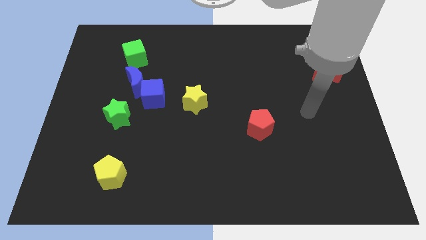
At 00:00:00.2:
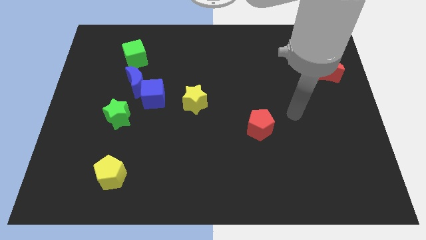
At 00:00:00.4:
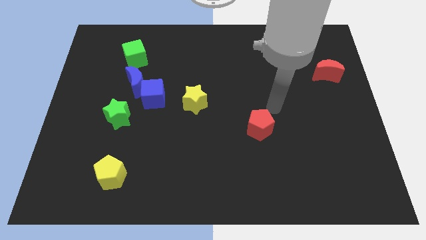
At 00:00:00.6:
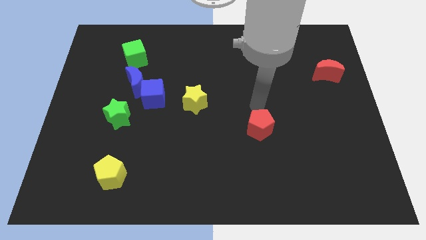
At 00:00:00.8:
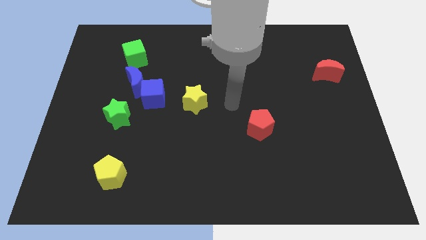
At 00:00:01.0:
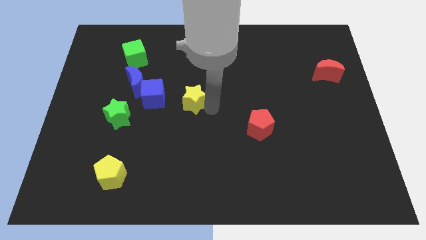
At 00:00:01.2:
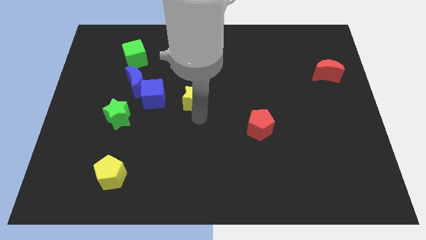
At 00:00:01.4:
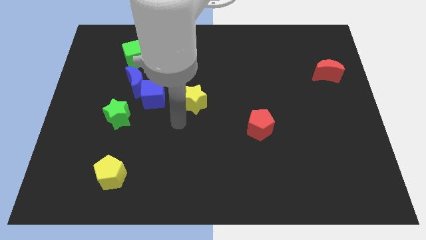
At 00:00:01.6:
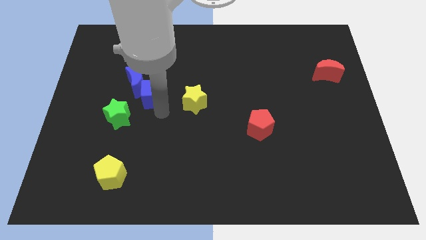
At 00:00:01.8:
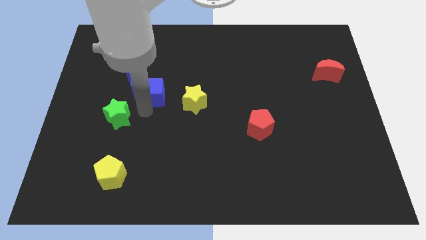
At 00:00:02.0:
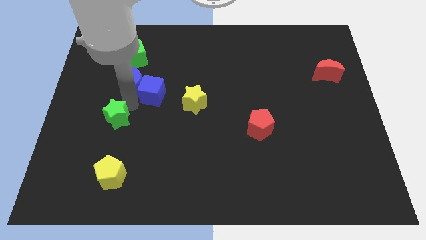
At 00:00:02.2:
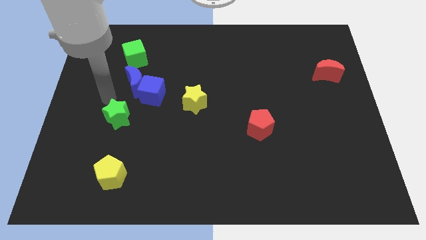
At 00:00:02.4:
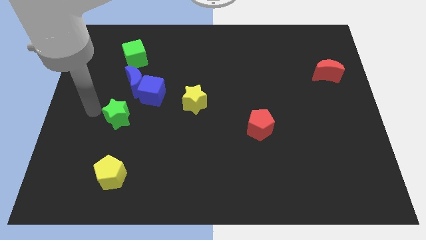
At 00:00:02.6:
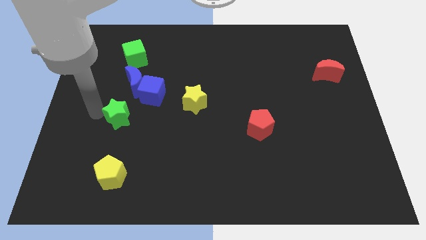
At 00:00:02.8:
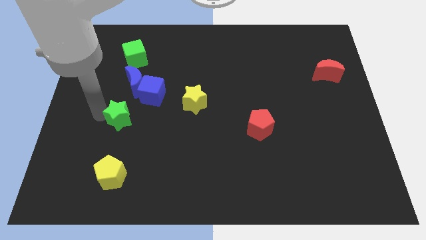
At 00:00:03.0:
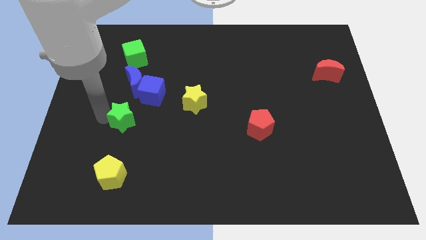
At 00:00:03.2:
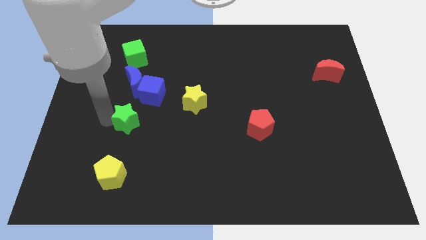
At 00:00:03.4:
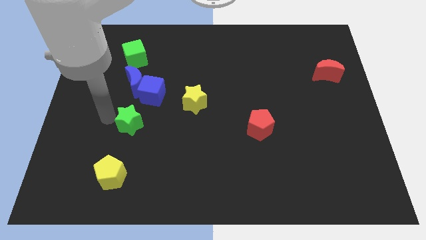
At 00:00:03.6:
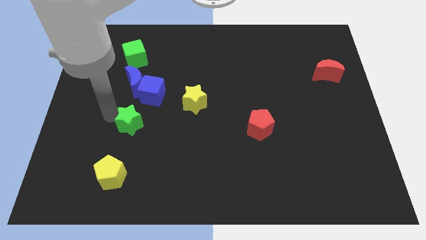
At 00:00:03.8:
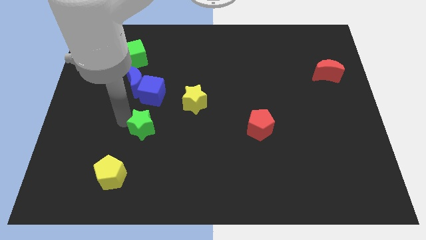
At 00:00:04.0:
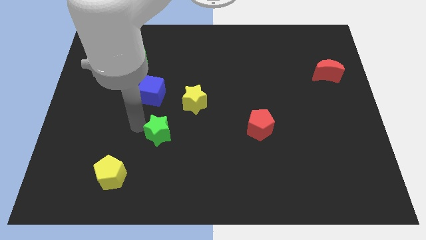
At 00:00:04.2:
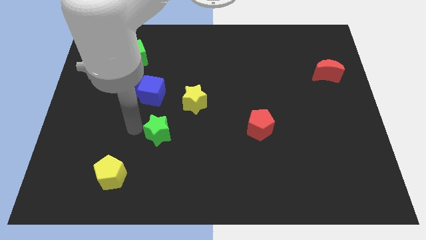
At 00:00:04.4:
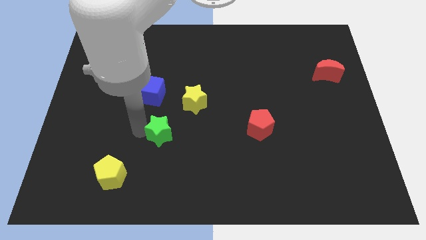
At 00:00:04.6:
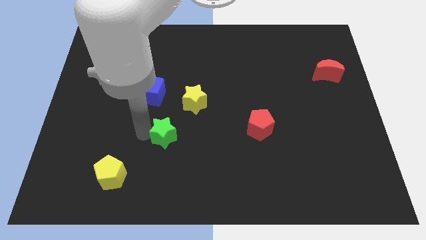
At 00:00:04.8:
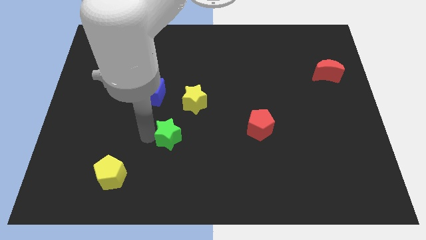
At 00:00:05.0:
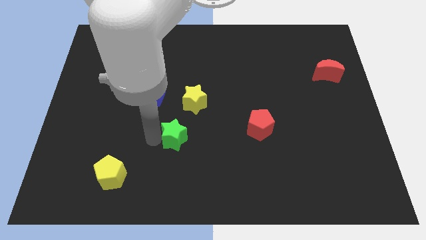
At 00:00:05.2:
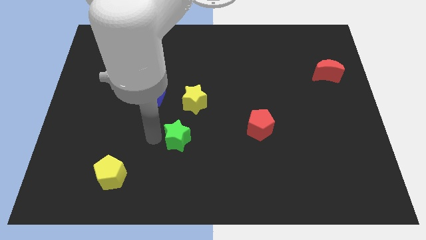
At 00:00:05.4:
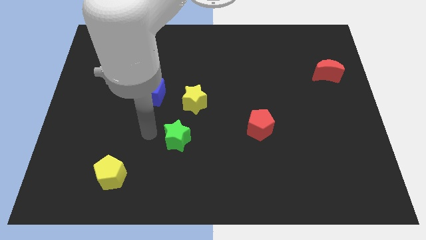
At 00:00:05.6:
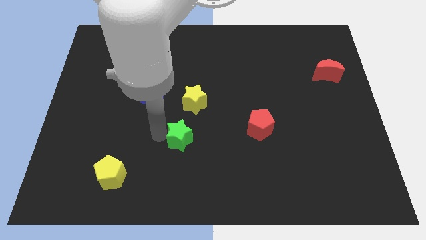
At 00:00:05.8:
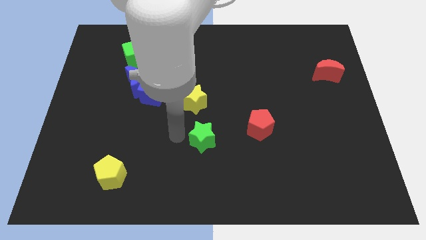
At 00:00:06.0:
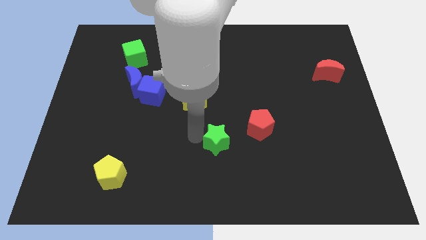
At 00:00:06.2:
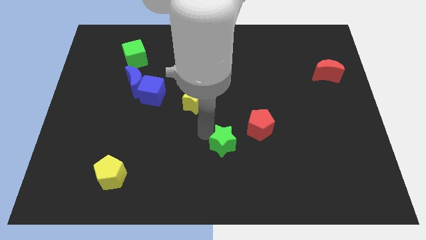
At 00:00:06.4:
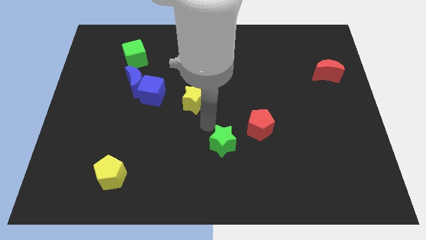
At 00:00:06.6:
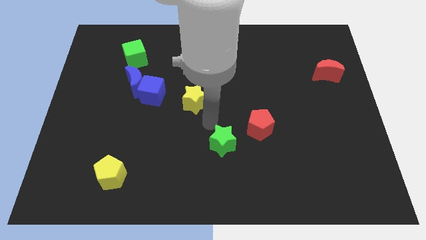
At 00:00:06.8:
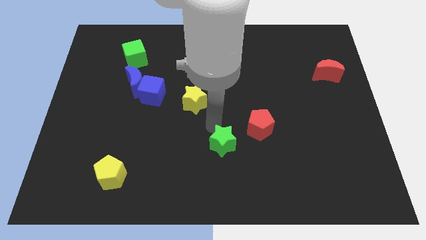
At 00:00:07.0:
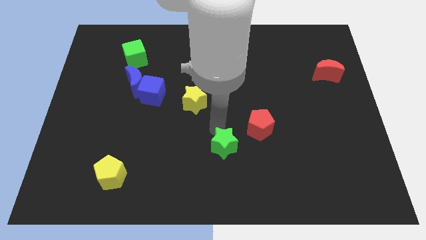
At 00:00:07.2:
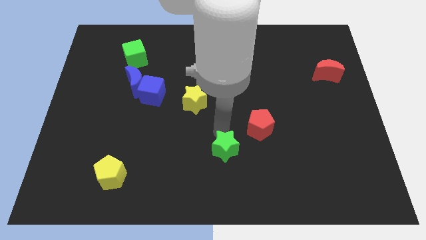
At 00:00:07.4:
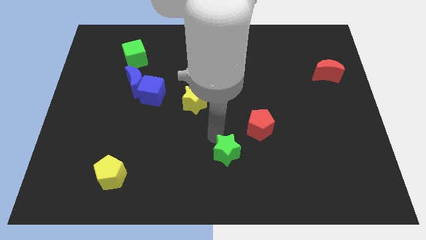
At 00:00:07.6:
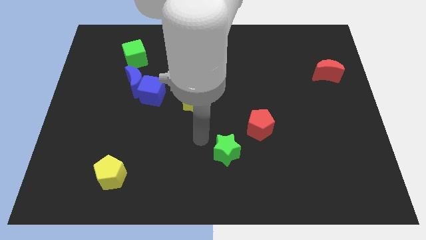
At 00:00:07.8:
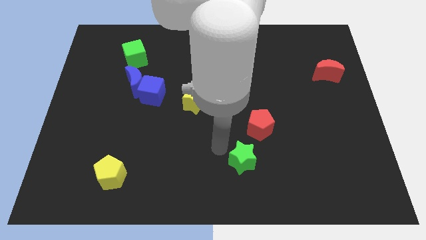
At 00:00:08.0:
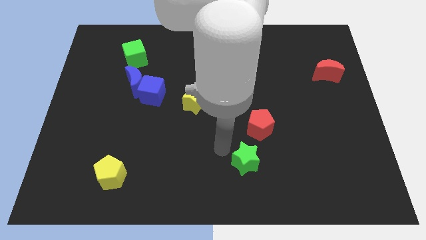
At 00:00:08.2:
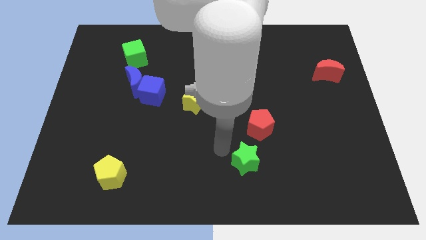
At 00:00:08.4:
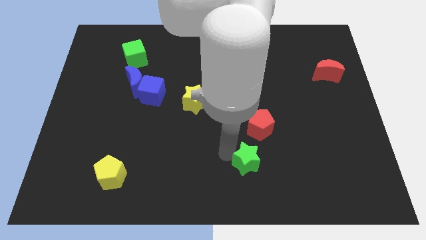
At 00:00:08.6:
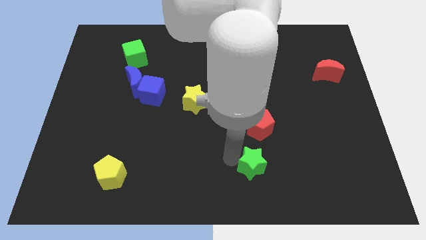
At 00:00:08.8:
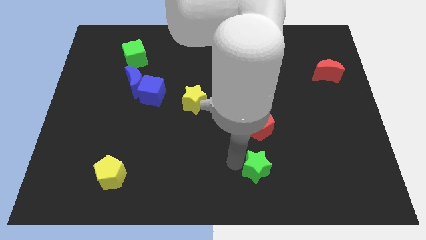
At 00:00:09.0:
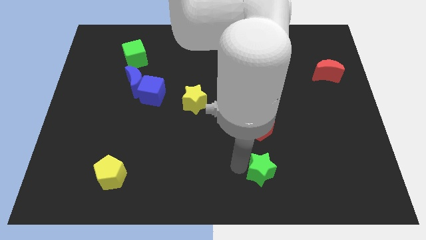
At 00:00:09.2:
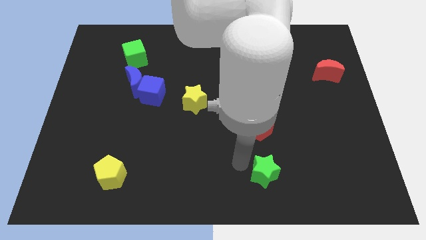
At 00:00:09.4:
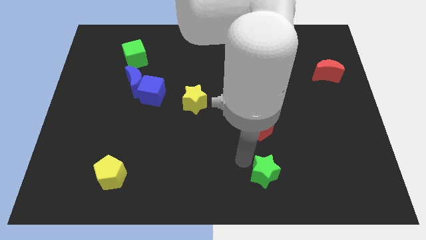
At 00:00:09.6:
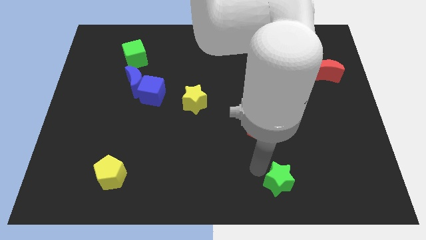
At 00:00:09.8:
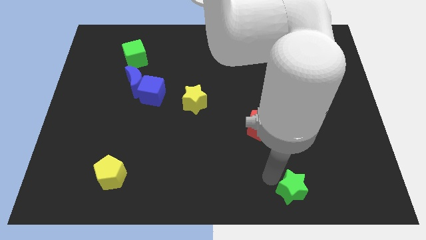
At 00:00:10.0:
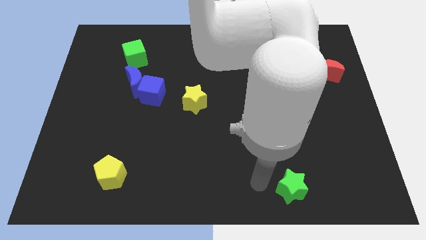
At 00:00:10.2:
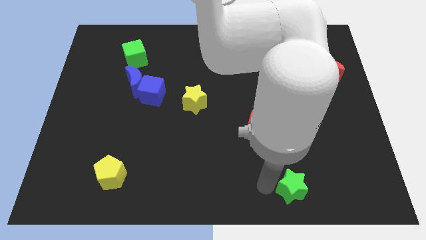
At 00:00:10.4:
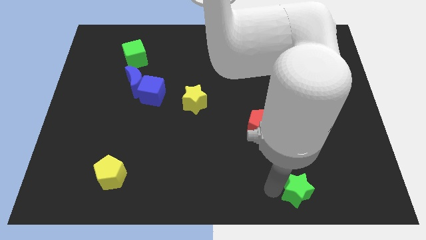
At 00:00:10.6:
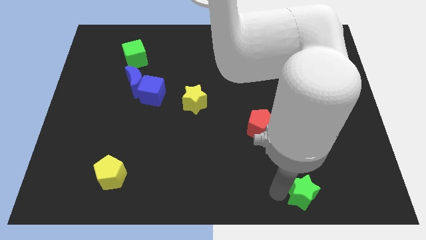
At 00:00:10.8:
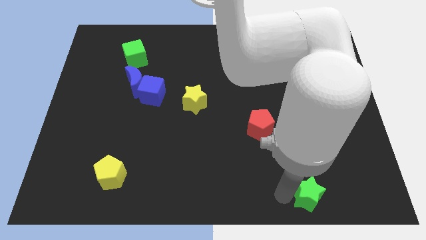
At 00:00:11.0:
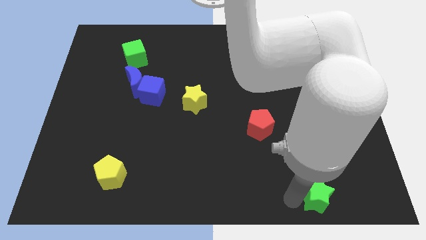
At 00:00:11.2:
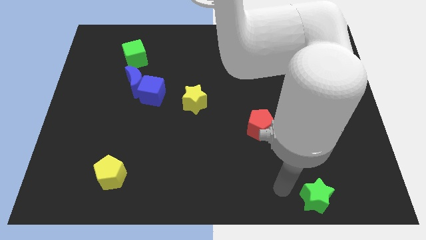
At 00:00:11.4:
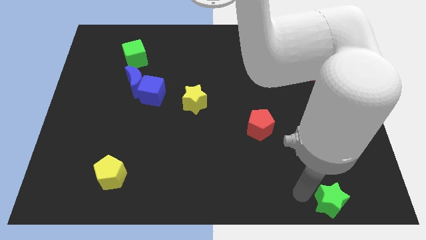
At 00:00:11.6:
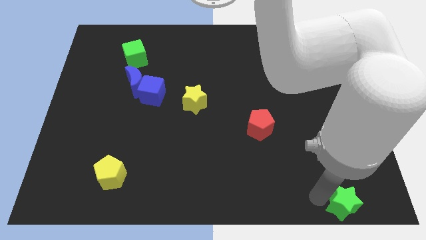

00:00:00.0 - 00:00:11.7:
slide the green star to the lower right corner

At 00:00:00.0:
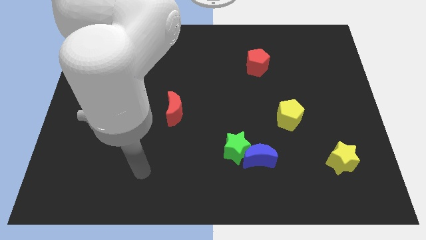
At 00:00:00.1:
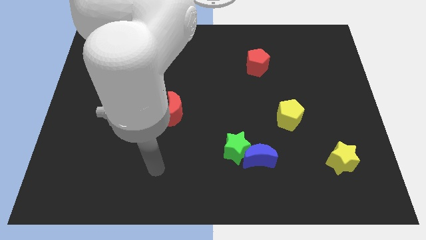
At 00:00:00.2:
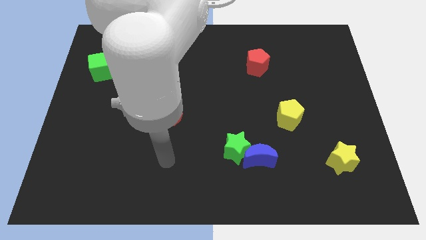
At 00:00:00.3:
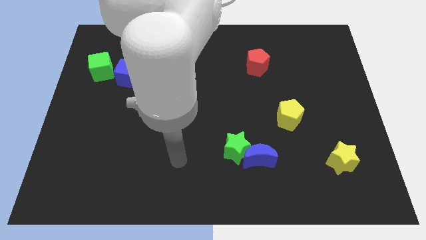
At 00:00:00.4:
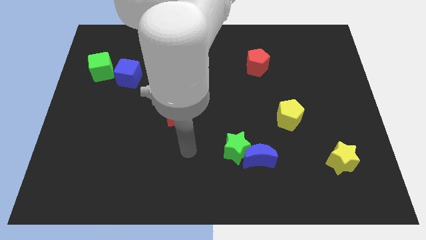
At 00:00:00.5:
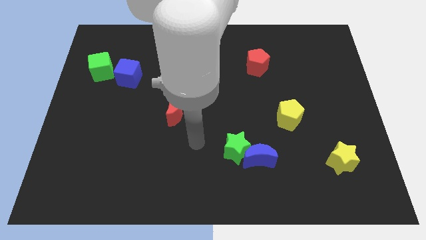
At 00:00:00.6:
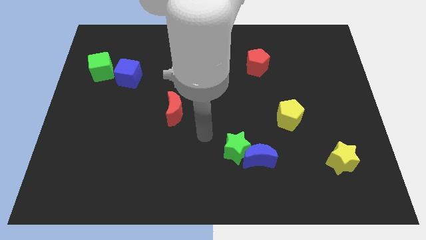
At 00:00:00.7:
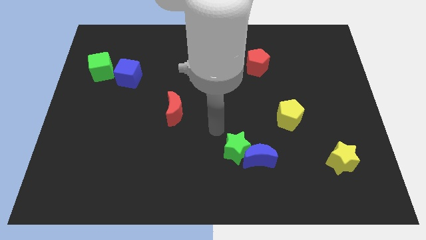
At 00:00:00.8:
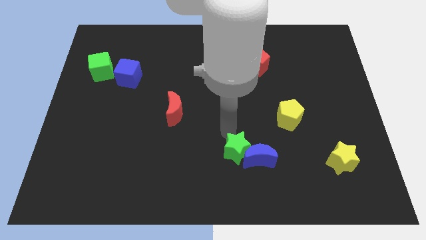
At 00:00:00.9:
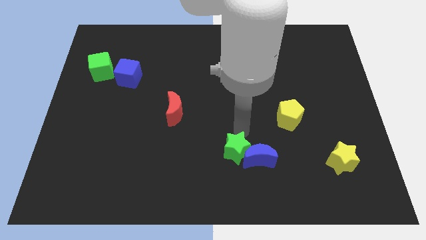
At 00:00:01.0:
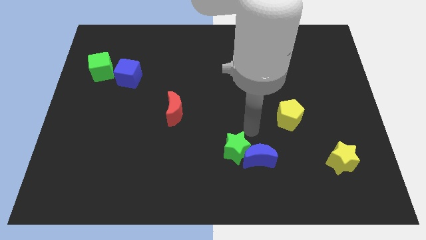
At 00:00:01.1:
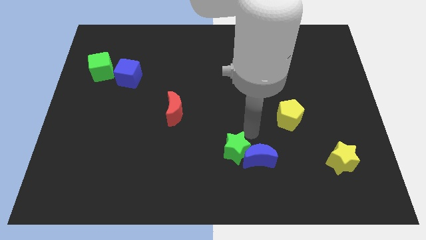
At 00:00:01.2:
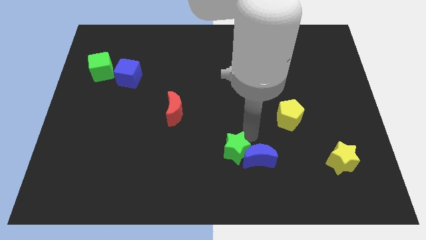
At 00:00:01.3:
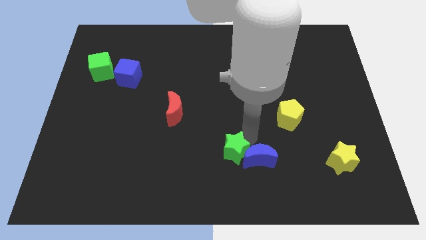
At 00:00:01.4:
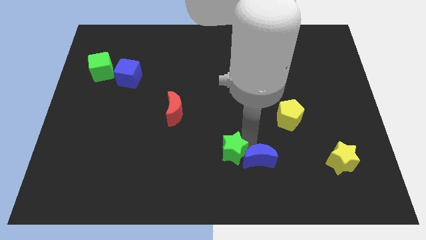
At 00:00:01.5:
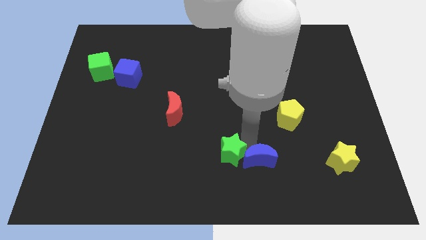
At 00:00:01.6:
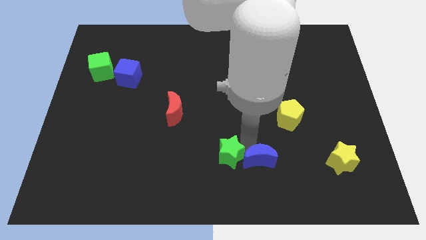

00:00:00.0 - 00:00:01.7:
push the green star to the bottom
